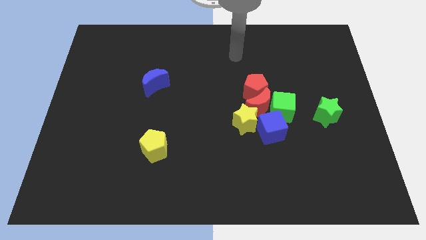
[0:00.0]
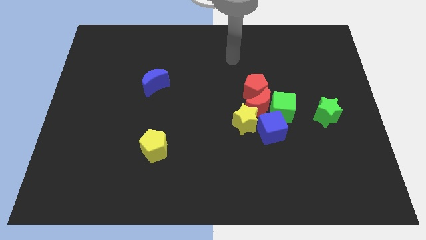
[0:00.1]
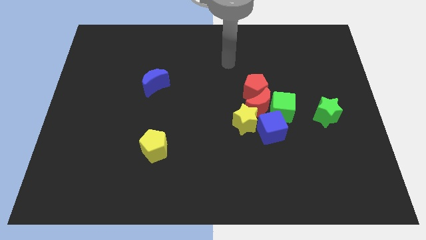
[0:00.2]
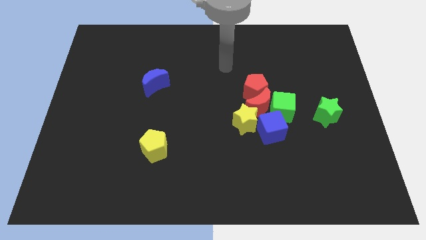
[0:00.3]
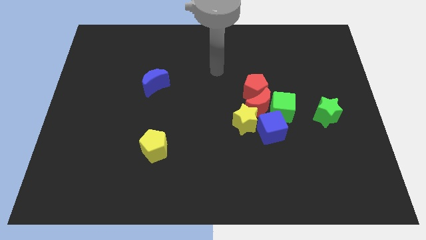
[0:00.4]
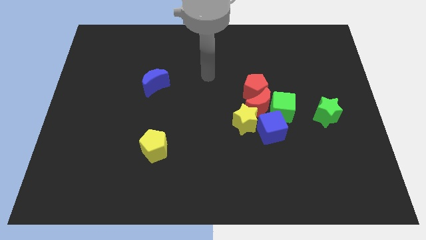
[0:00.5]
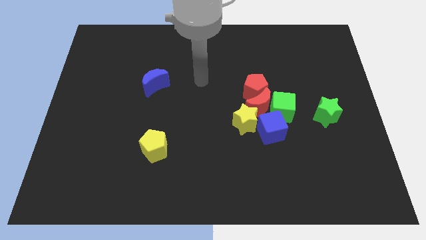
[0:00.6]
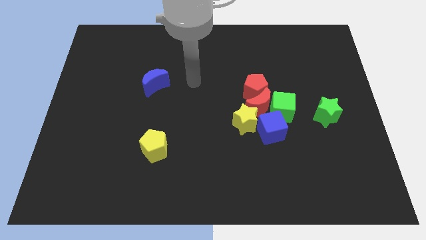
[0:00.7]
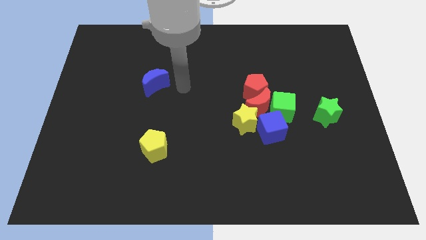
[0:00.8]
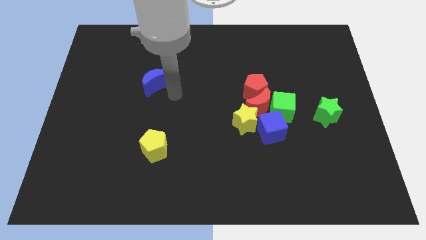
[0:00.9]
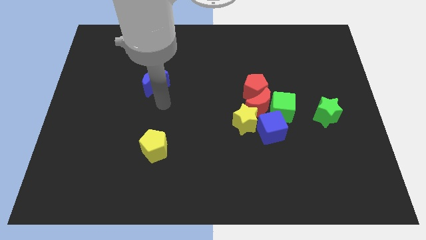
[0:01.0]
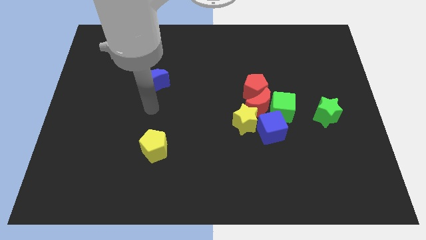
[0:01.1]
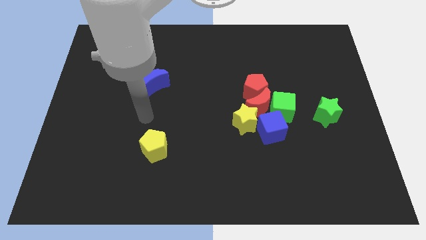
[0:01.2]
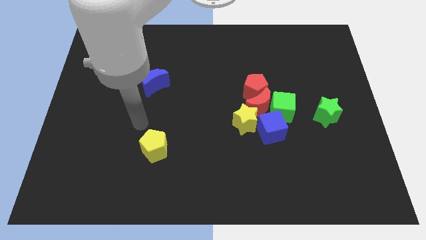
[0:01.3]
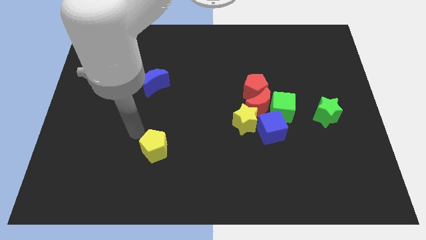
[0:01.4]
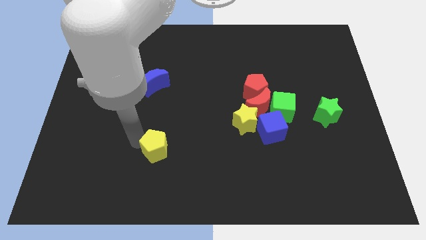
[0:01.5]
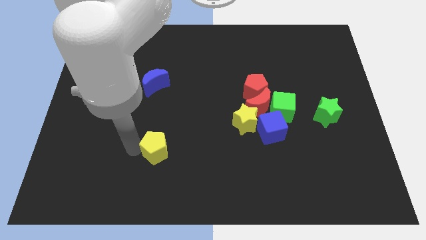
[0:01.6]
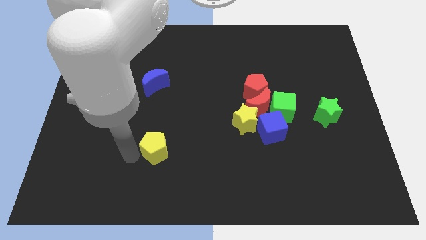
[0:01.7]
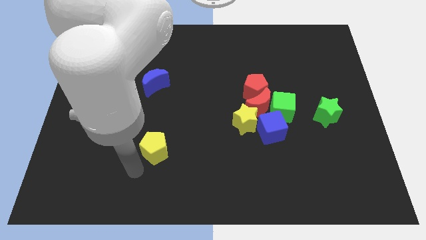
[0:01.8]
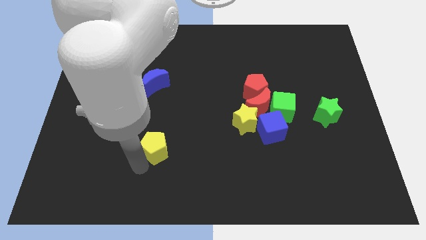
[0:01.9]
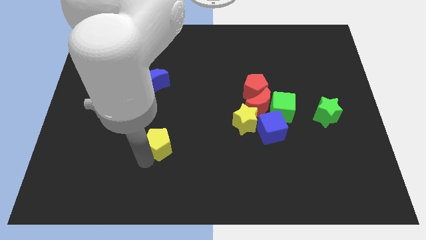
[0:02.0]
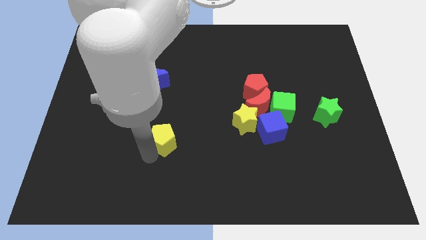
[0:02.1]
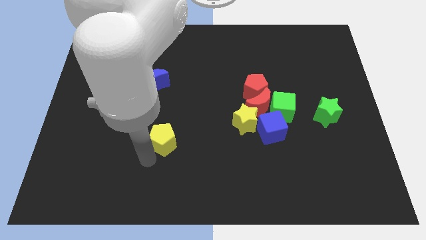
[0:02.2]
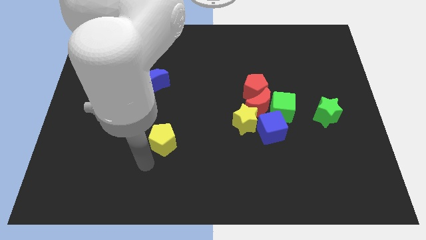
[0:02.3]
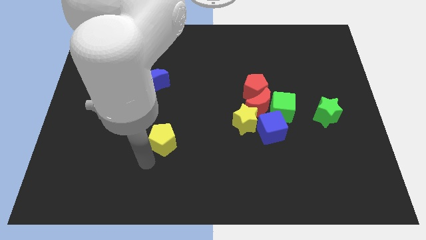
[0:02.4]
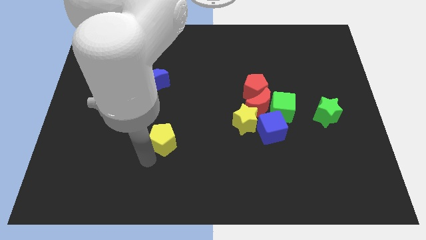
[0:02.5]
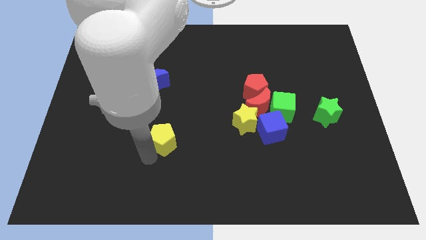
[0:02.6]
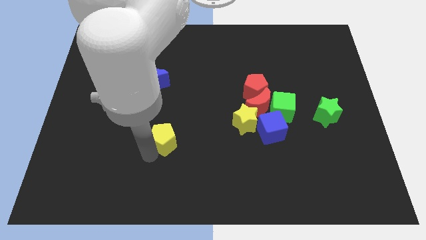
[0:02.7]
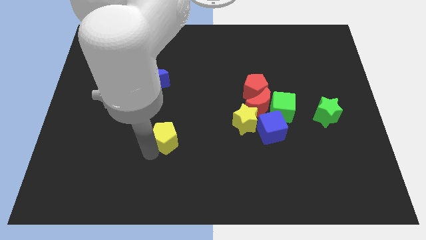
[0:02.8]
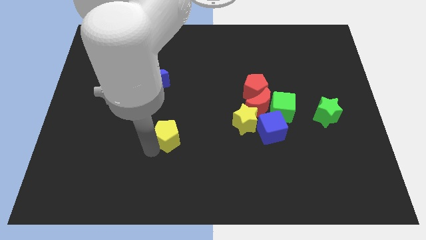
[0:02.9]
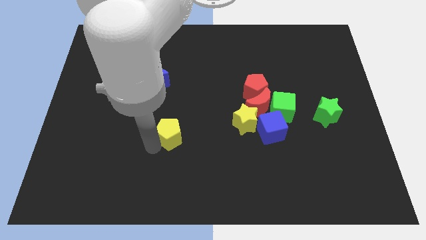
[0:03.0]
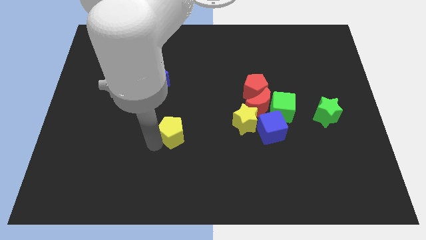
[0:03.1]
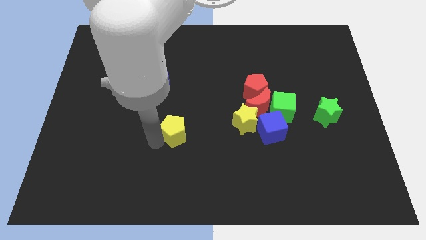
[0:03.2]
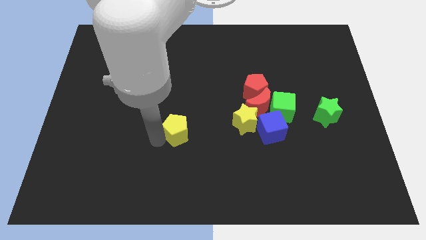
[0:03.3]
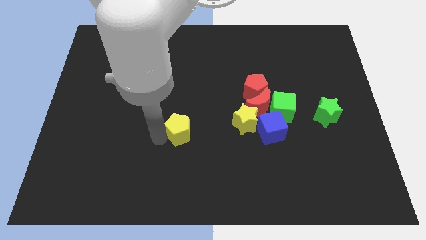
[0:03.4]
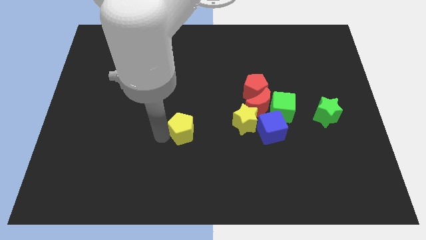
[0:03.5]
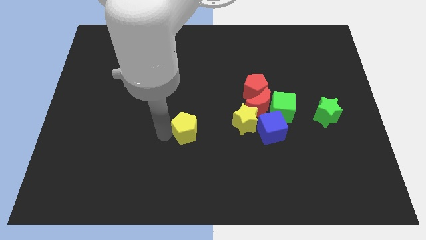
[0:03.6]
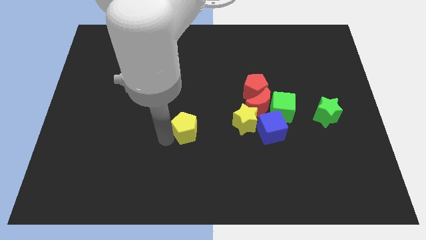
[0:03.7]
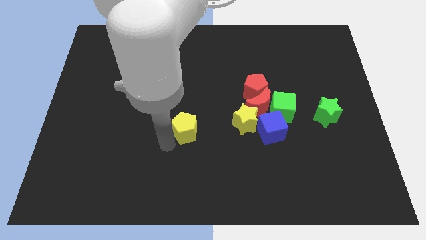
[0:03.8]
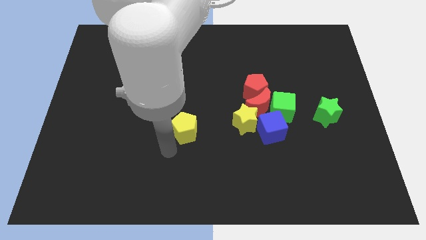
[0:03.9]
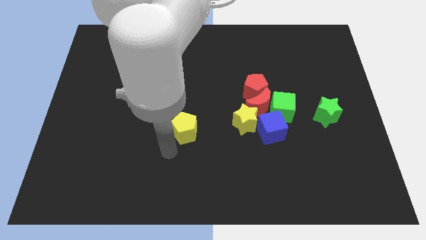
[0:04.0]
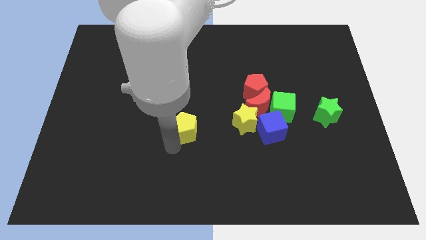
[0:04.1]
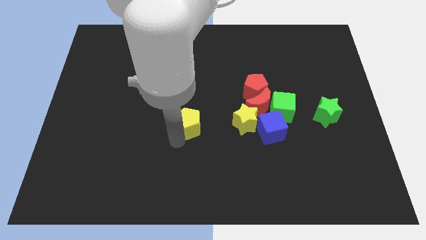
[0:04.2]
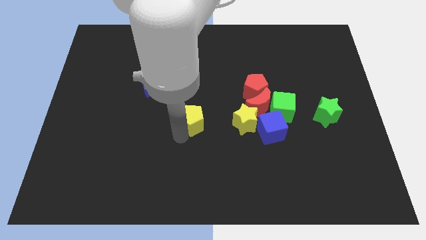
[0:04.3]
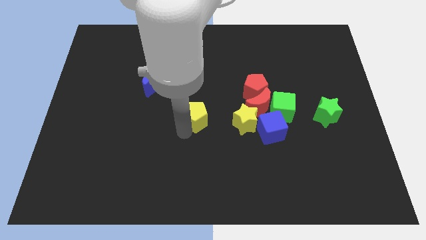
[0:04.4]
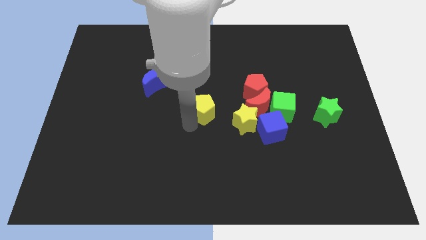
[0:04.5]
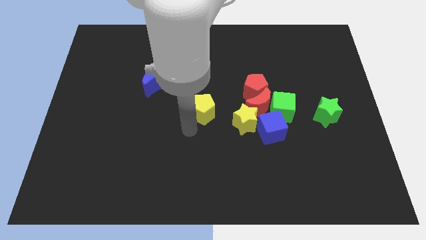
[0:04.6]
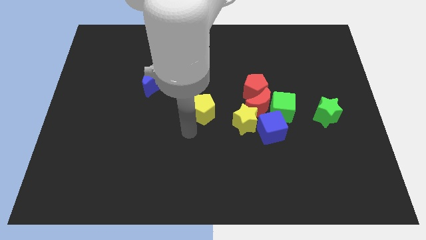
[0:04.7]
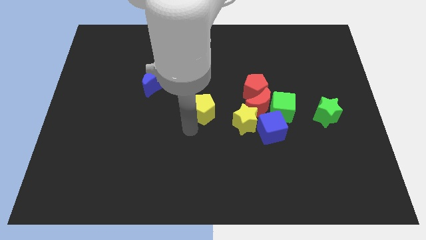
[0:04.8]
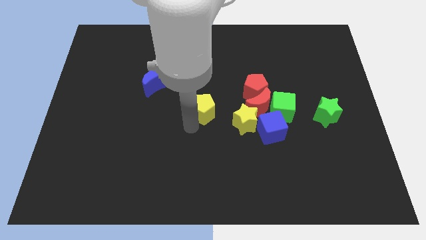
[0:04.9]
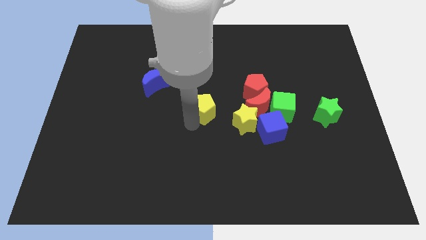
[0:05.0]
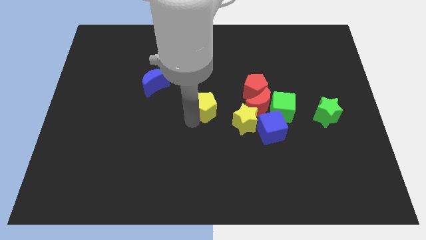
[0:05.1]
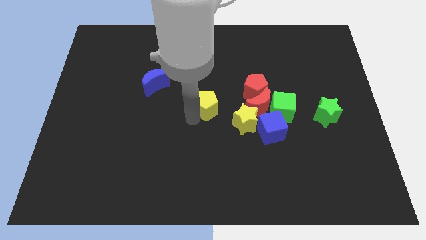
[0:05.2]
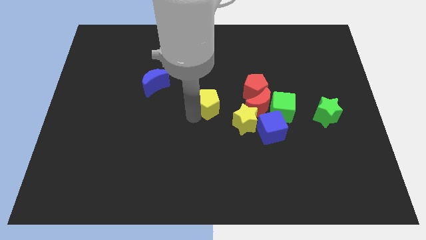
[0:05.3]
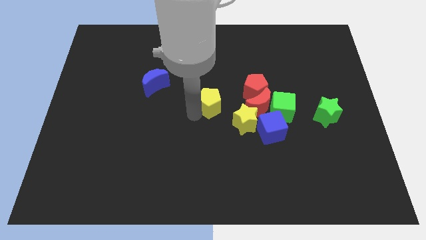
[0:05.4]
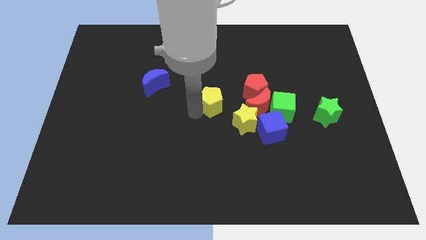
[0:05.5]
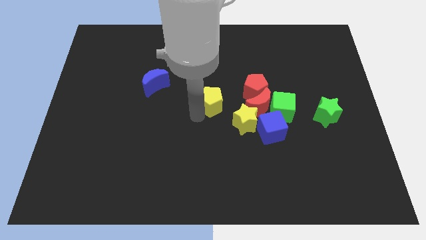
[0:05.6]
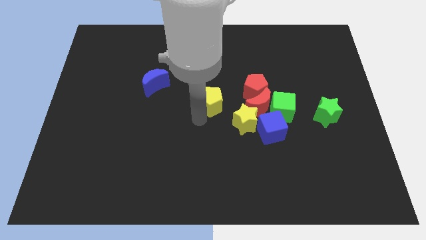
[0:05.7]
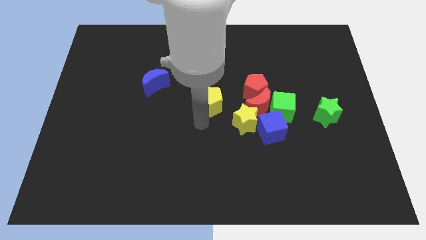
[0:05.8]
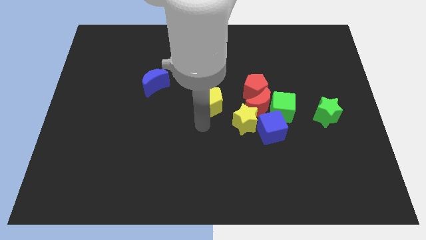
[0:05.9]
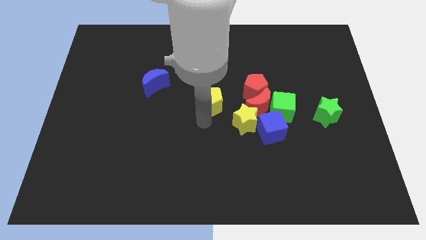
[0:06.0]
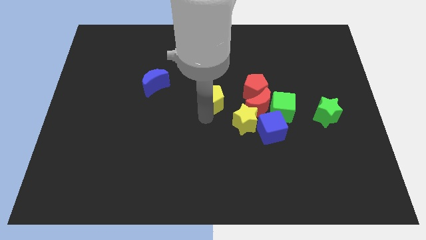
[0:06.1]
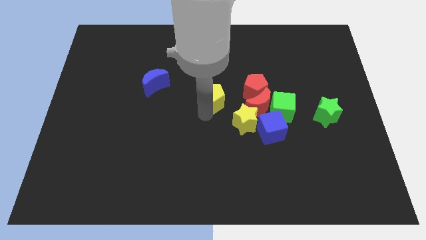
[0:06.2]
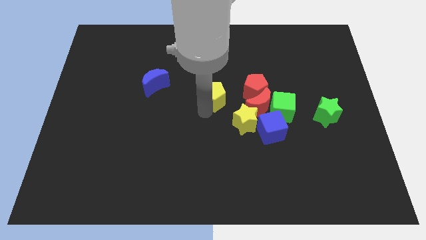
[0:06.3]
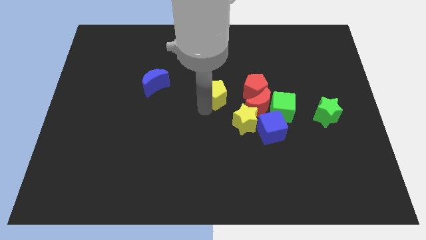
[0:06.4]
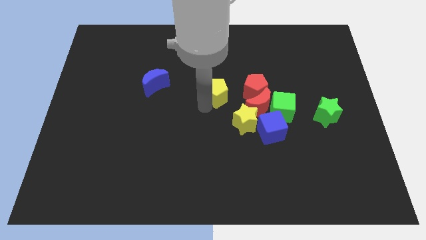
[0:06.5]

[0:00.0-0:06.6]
move the yellow pentagon diagonally up and to the right

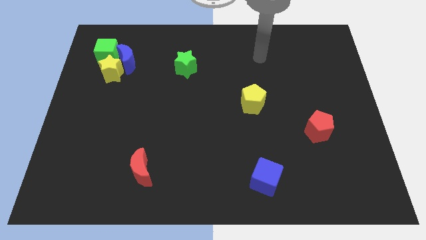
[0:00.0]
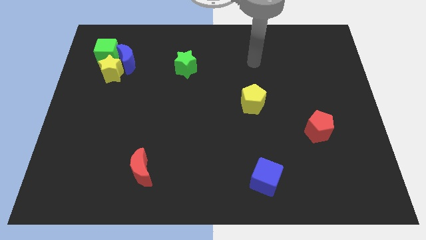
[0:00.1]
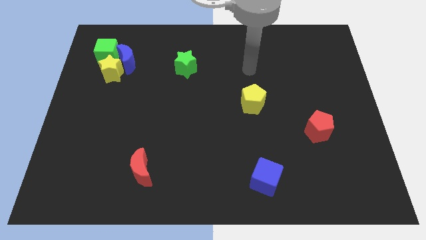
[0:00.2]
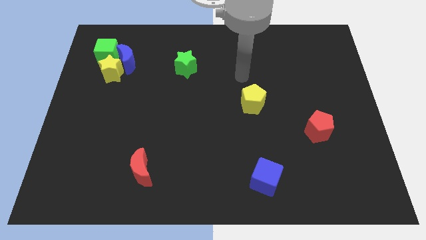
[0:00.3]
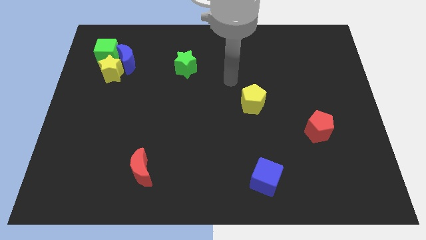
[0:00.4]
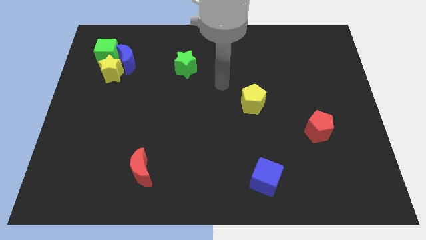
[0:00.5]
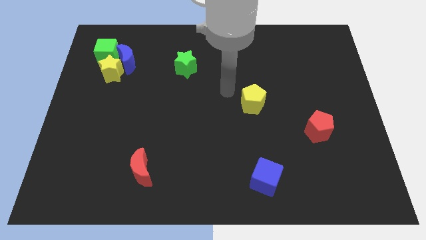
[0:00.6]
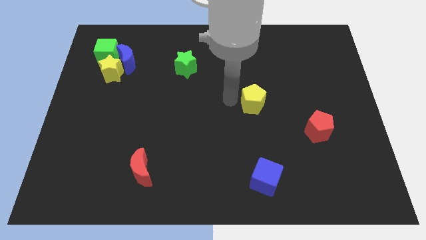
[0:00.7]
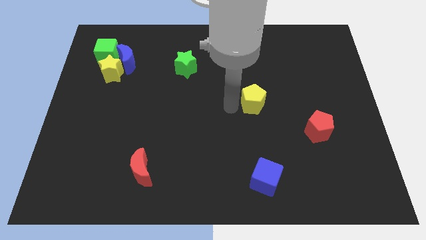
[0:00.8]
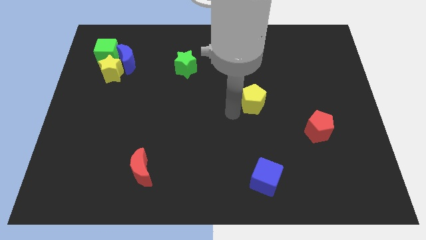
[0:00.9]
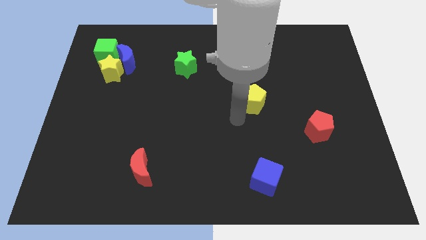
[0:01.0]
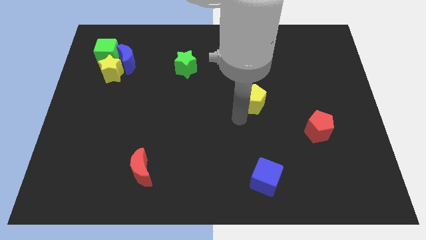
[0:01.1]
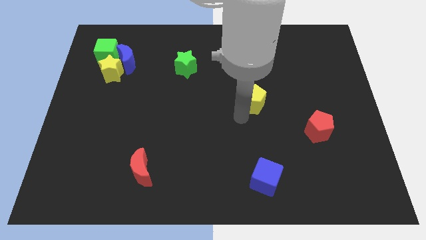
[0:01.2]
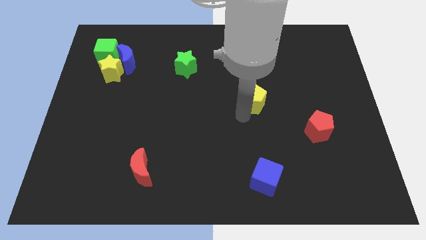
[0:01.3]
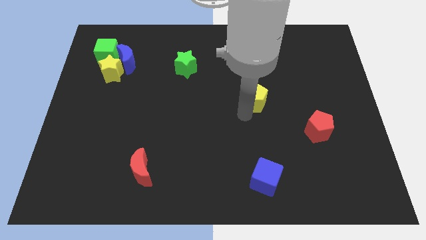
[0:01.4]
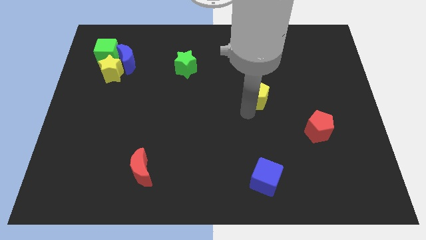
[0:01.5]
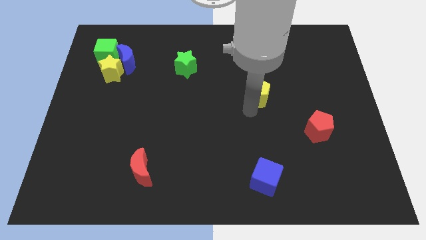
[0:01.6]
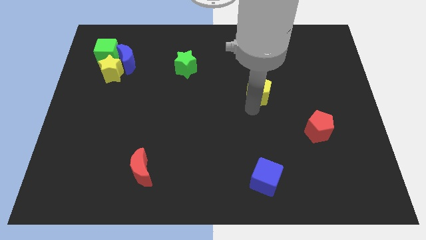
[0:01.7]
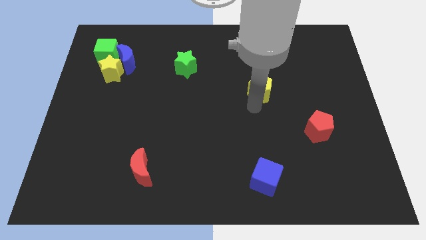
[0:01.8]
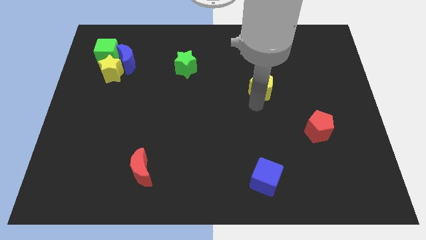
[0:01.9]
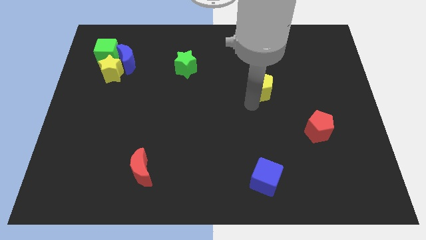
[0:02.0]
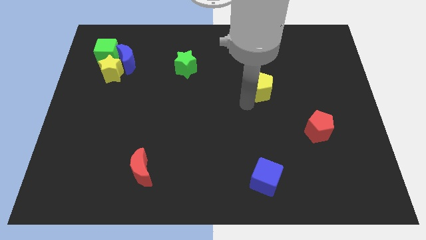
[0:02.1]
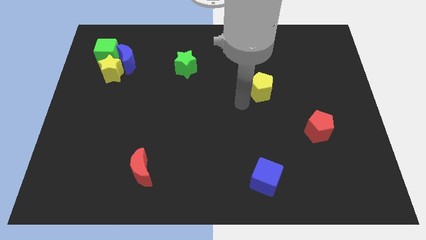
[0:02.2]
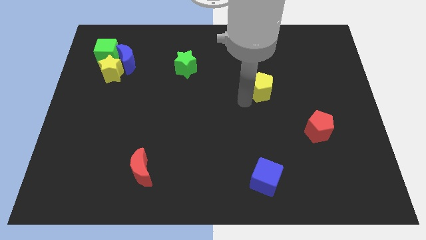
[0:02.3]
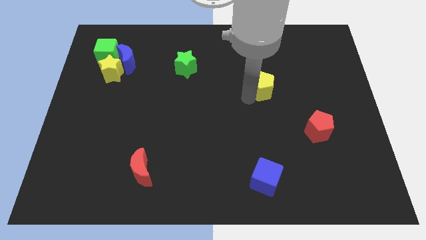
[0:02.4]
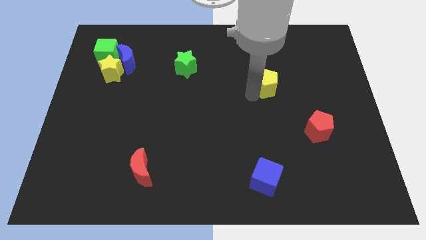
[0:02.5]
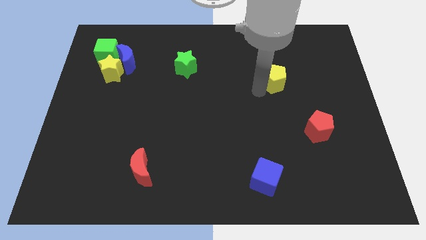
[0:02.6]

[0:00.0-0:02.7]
slightly move the yellow pentagon diagonally upwards and right
